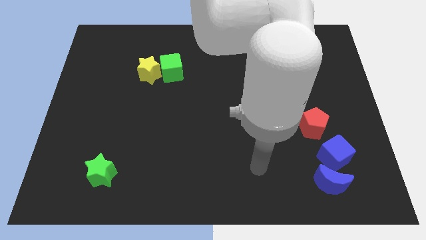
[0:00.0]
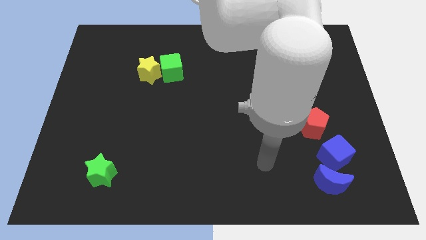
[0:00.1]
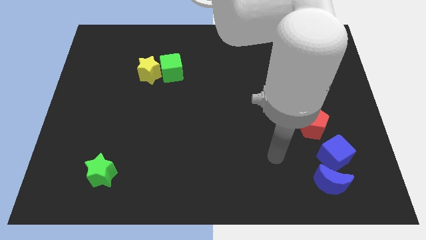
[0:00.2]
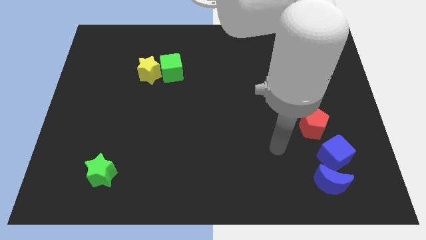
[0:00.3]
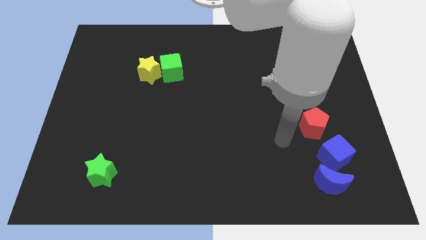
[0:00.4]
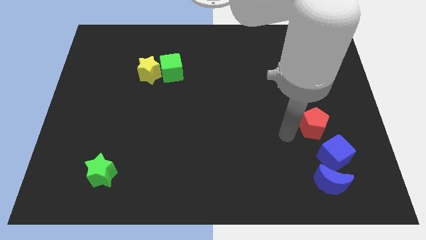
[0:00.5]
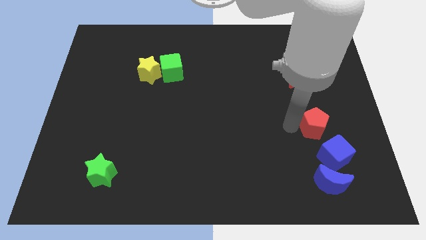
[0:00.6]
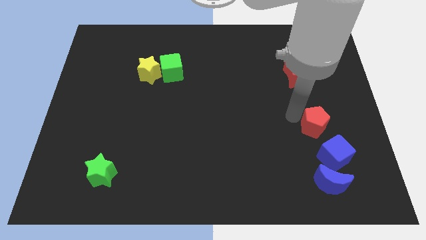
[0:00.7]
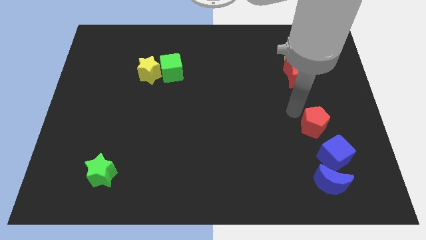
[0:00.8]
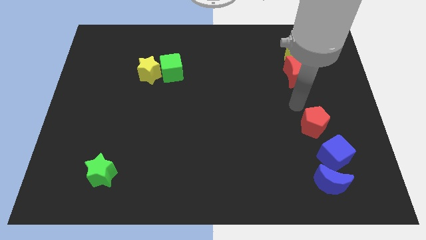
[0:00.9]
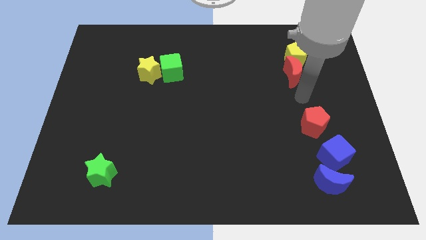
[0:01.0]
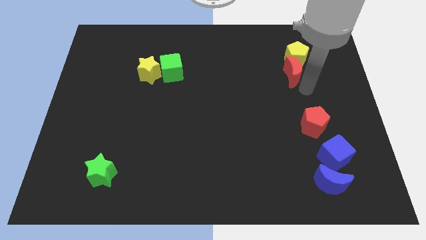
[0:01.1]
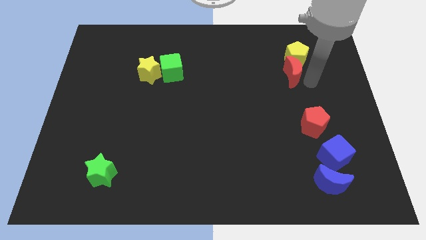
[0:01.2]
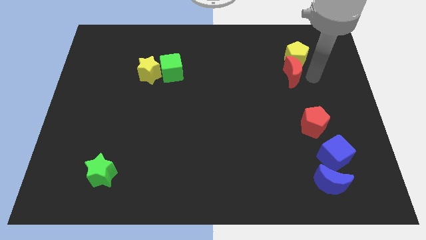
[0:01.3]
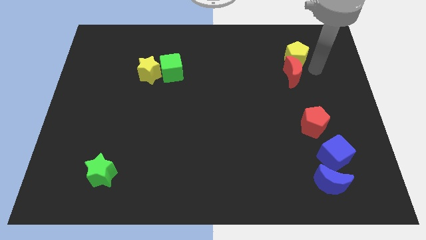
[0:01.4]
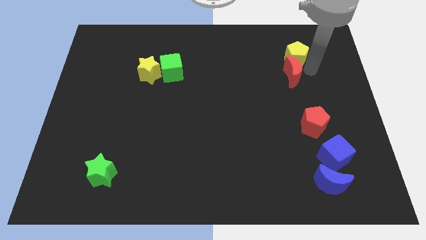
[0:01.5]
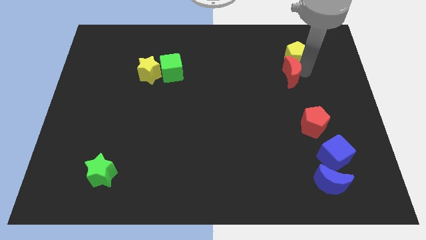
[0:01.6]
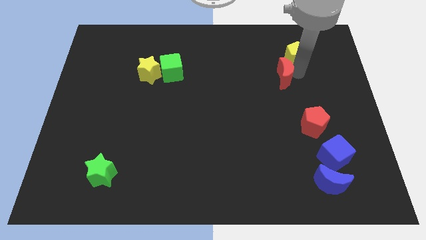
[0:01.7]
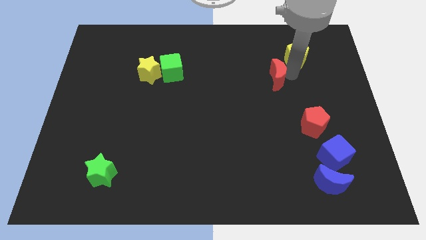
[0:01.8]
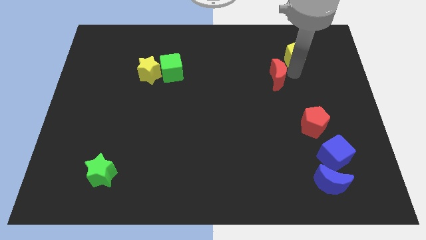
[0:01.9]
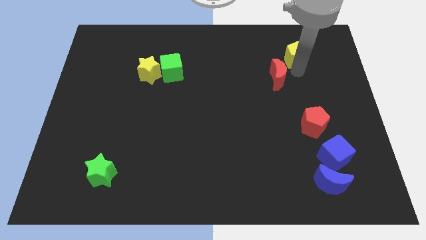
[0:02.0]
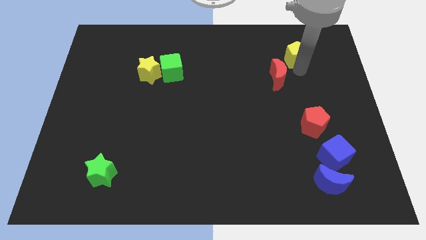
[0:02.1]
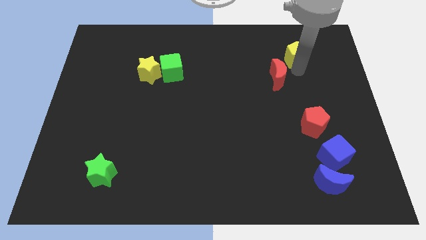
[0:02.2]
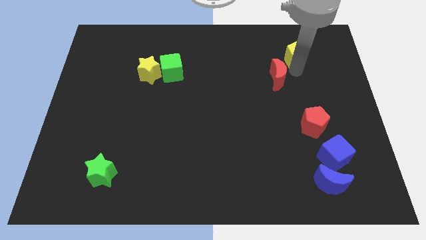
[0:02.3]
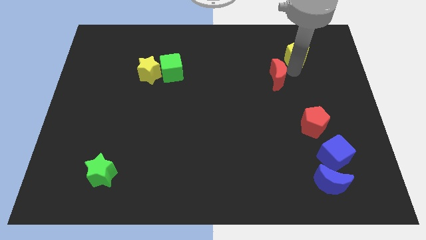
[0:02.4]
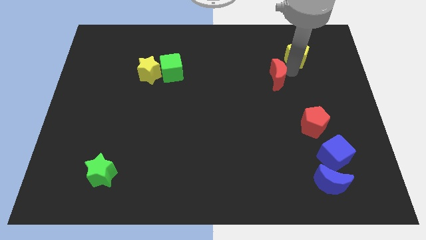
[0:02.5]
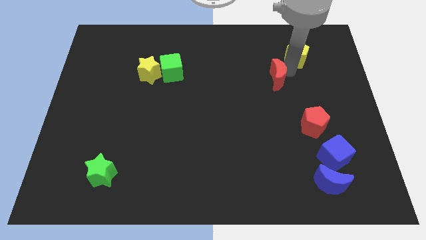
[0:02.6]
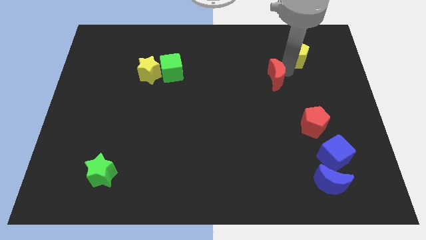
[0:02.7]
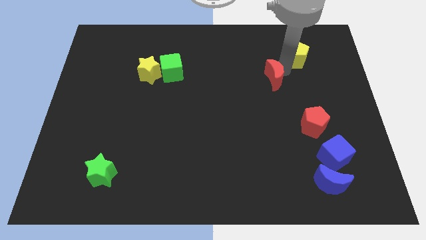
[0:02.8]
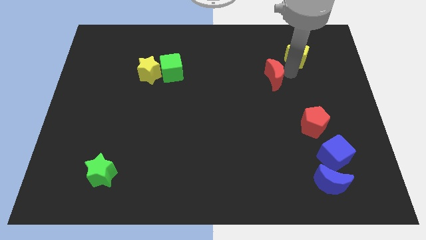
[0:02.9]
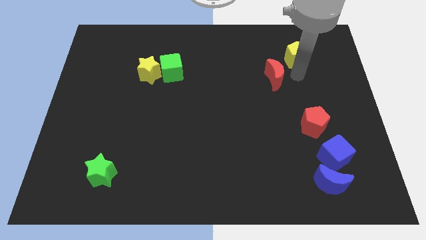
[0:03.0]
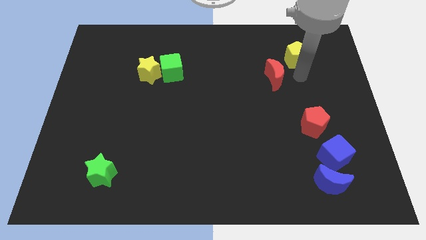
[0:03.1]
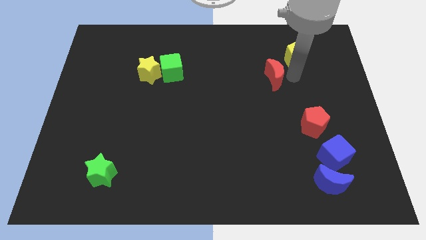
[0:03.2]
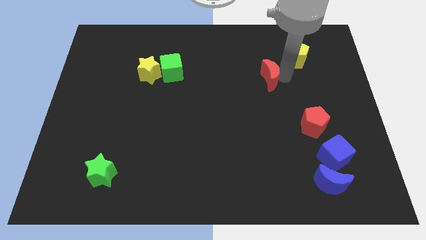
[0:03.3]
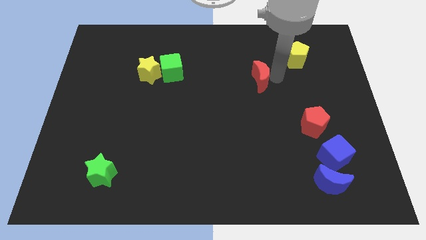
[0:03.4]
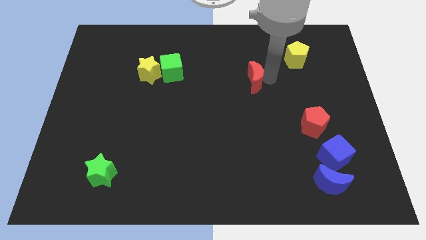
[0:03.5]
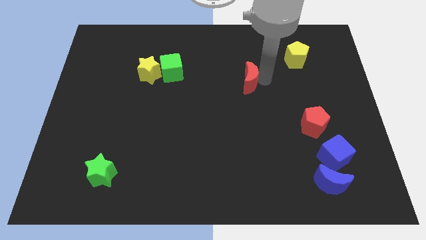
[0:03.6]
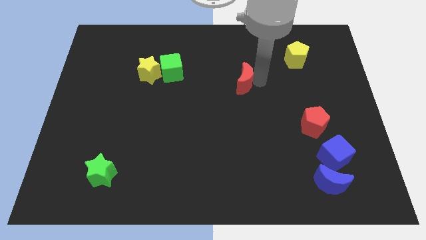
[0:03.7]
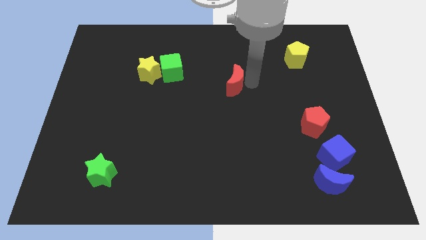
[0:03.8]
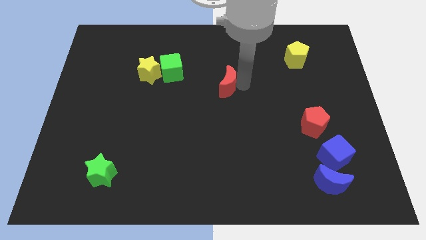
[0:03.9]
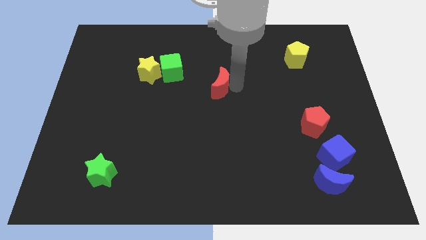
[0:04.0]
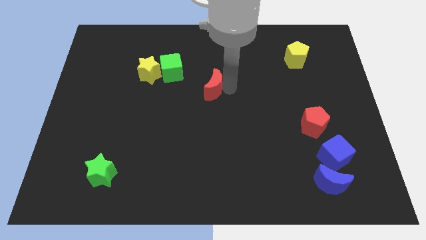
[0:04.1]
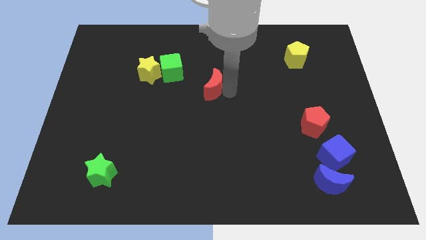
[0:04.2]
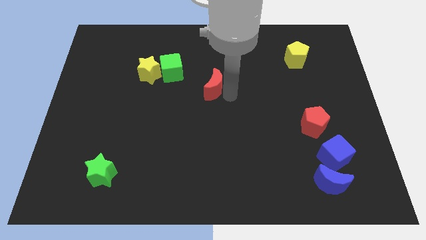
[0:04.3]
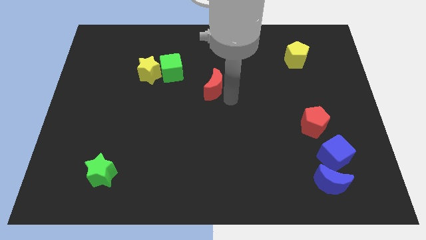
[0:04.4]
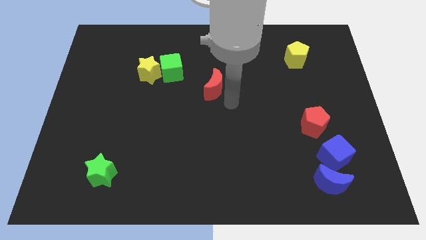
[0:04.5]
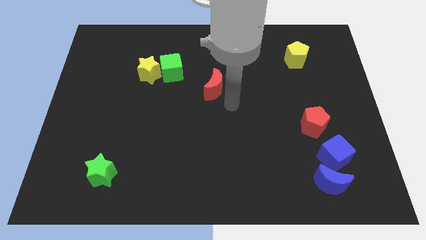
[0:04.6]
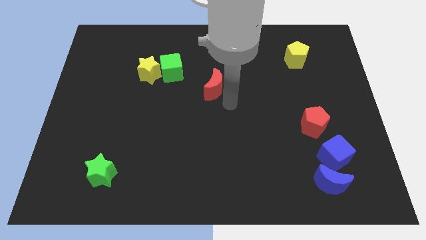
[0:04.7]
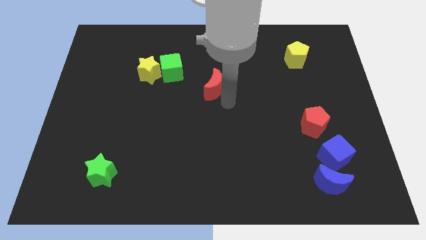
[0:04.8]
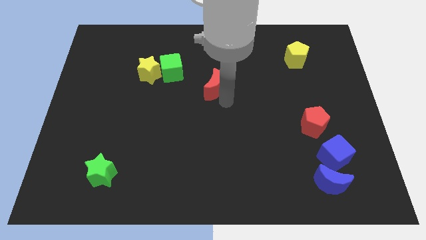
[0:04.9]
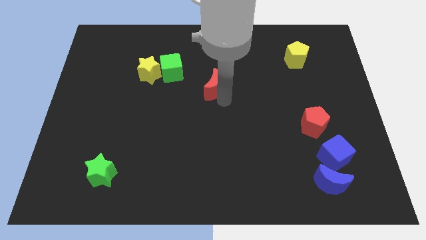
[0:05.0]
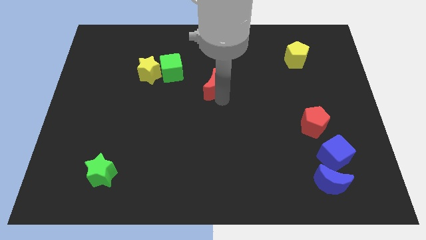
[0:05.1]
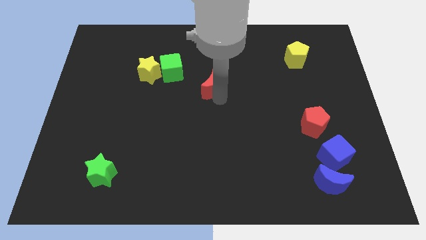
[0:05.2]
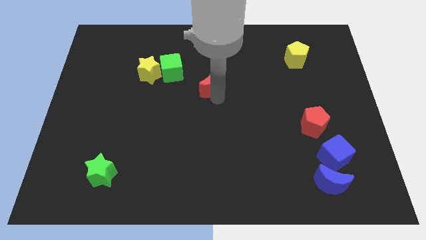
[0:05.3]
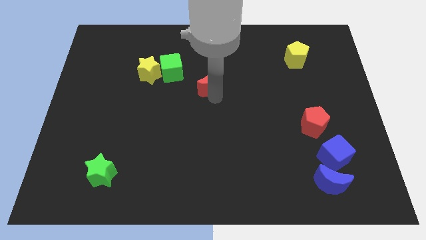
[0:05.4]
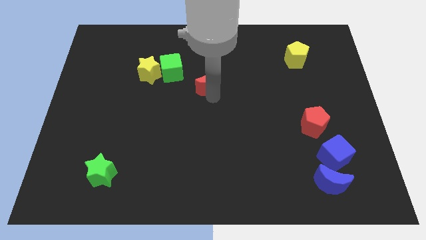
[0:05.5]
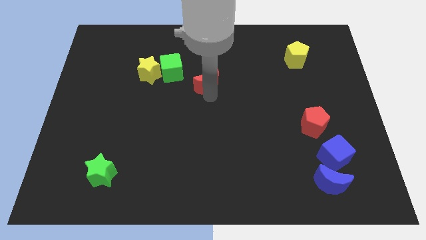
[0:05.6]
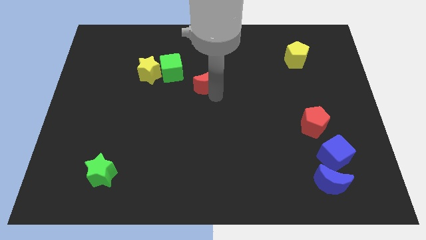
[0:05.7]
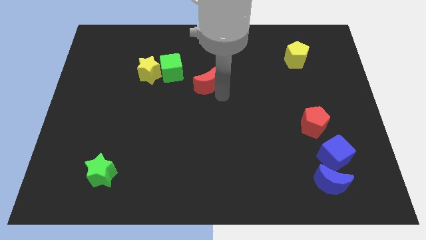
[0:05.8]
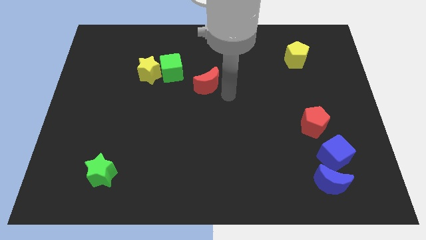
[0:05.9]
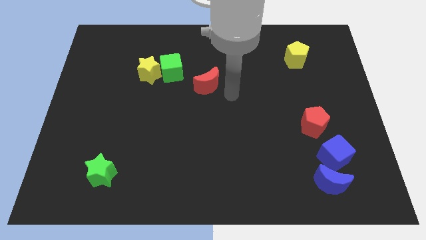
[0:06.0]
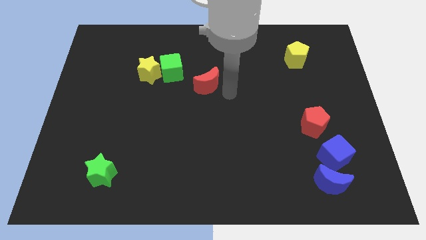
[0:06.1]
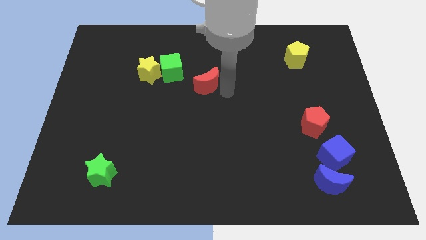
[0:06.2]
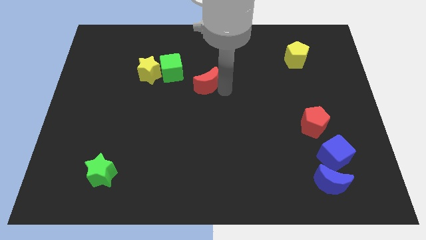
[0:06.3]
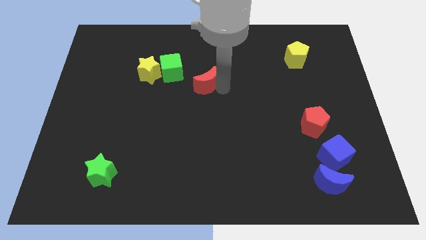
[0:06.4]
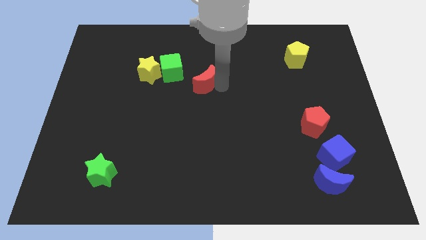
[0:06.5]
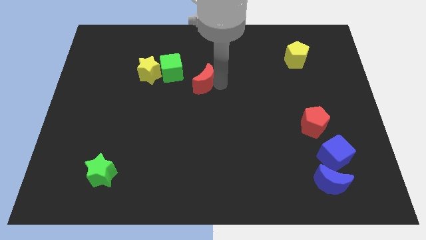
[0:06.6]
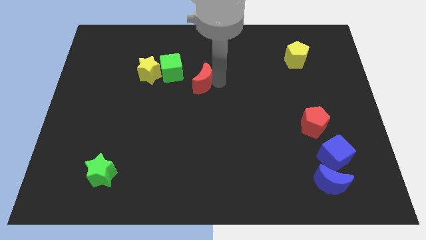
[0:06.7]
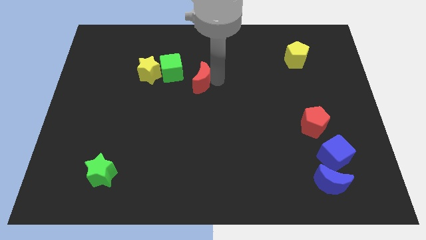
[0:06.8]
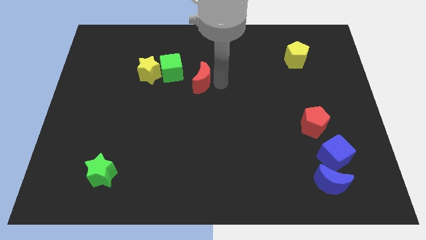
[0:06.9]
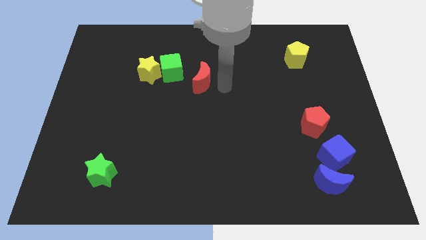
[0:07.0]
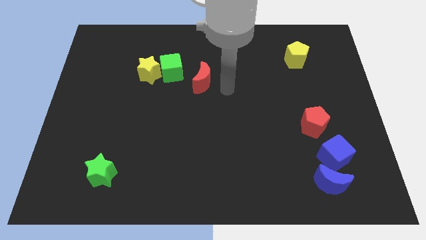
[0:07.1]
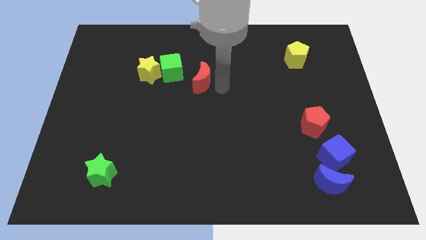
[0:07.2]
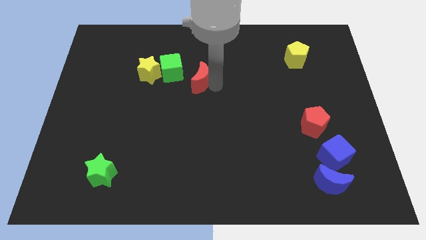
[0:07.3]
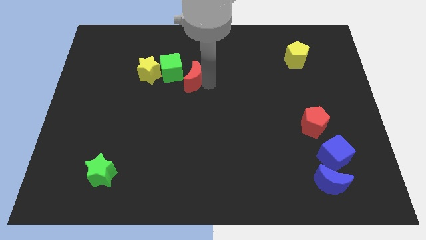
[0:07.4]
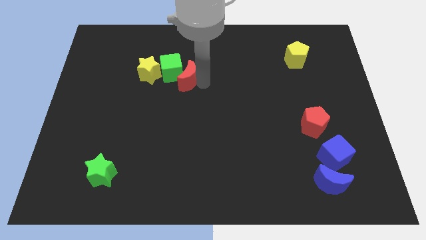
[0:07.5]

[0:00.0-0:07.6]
put the red moon next to the green cube
